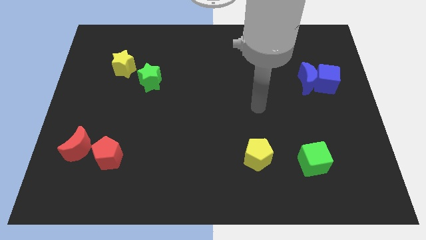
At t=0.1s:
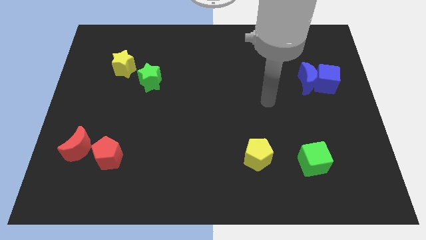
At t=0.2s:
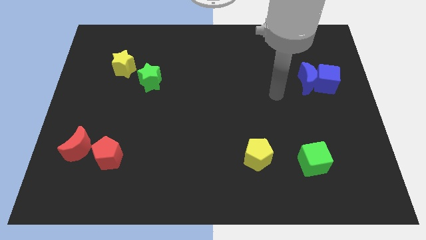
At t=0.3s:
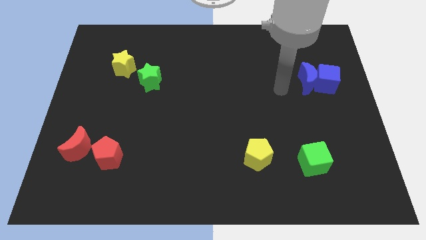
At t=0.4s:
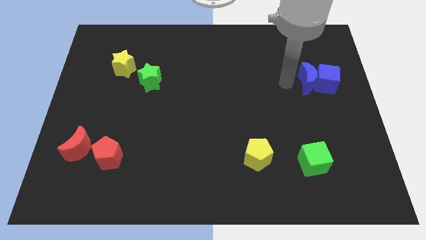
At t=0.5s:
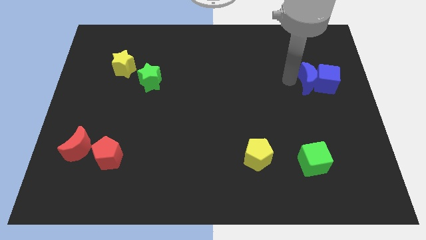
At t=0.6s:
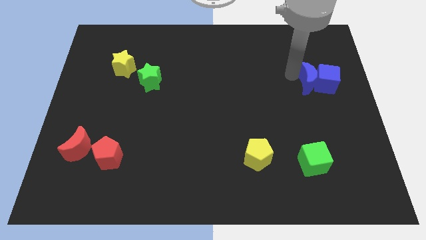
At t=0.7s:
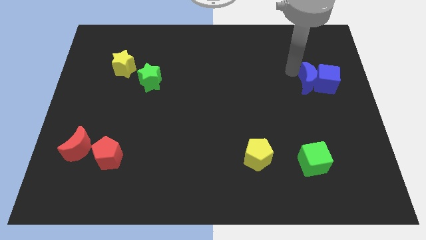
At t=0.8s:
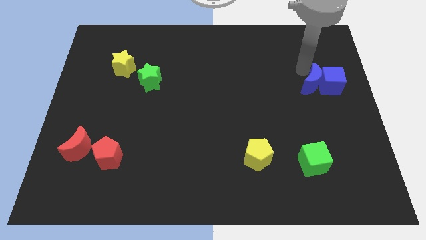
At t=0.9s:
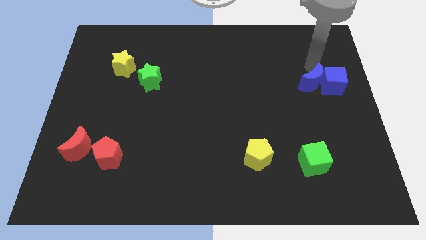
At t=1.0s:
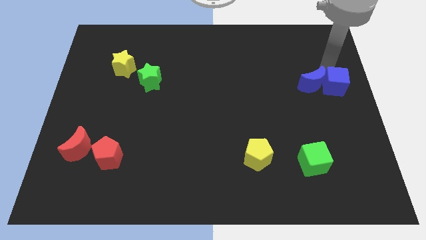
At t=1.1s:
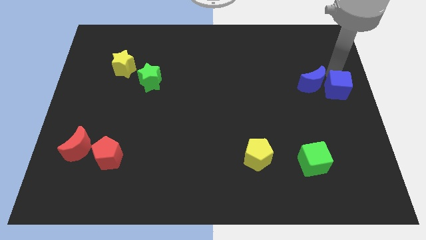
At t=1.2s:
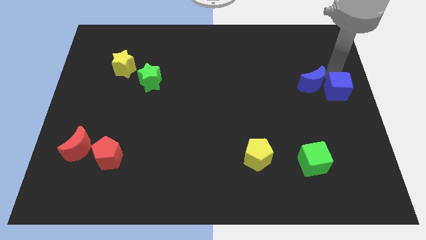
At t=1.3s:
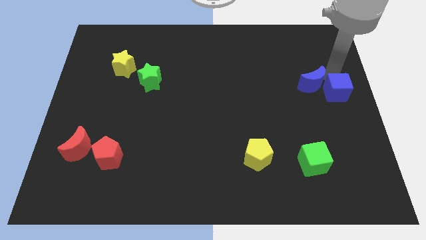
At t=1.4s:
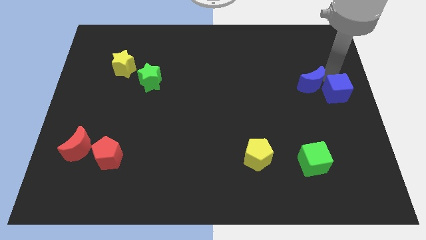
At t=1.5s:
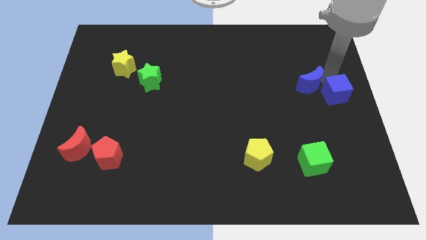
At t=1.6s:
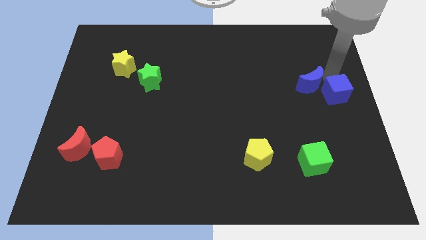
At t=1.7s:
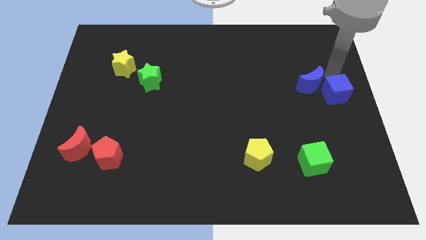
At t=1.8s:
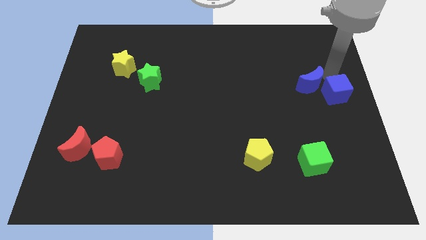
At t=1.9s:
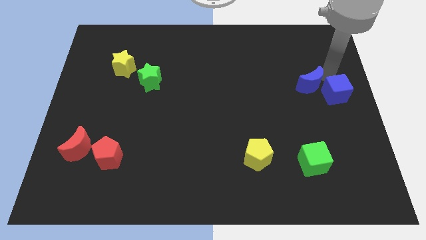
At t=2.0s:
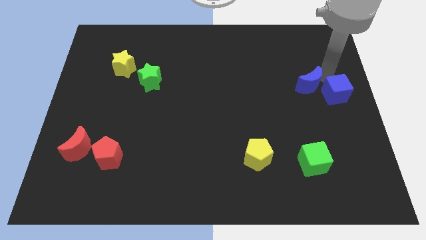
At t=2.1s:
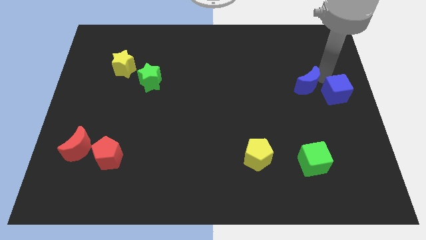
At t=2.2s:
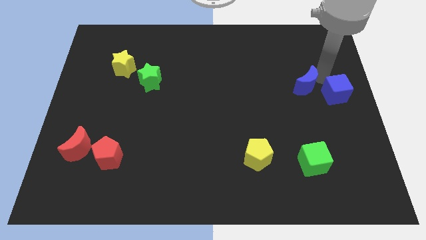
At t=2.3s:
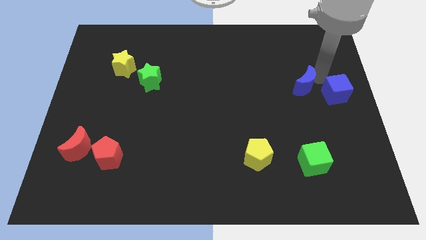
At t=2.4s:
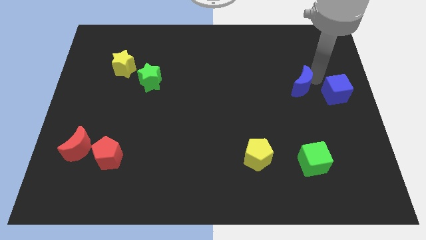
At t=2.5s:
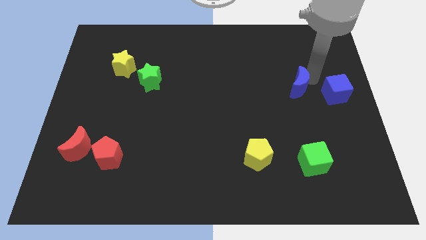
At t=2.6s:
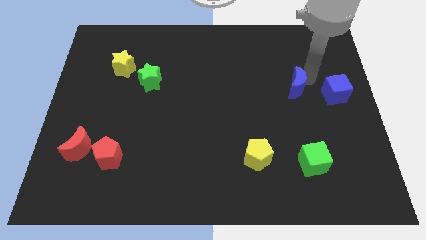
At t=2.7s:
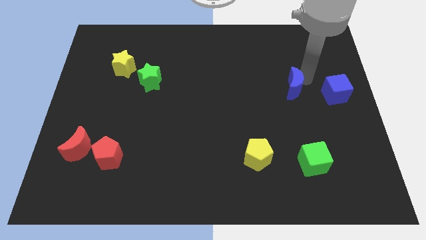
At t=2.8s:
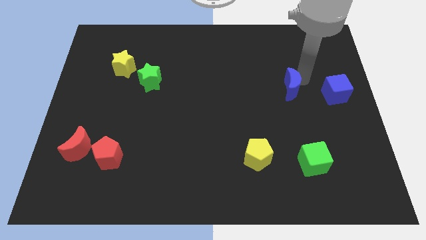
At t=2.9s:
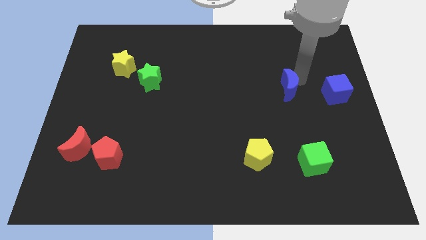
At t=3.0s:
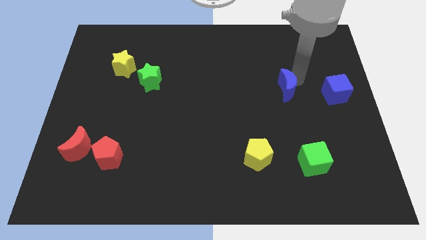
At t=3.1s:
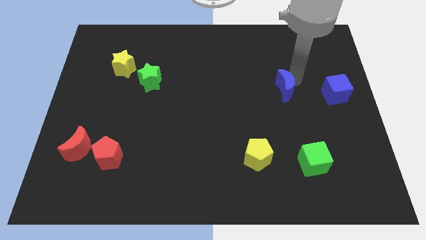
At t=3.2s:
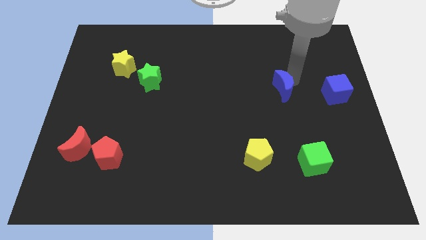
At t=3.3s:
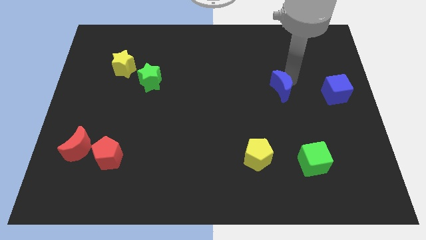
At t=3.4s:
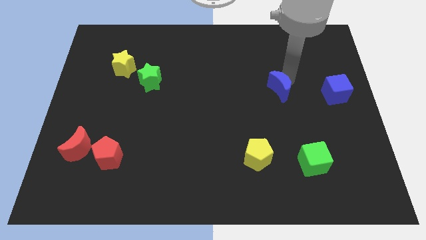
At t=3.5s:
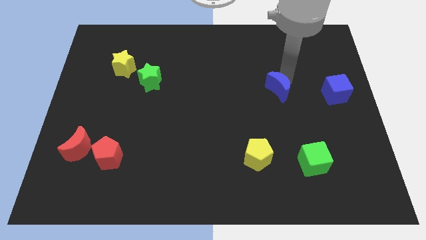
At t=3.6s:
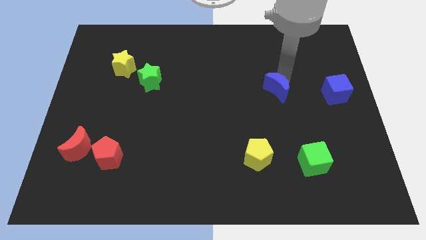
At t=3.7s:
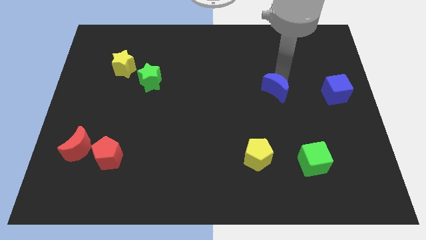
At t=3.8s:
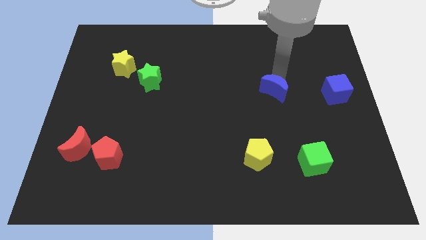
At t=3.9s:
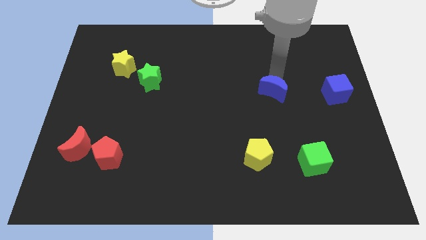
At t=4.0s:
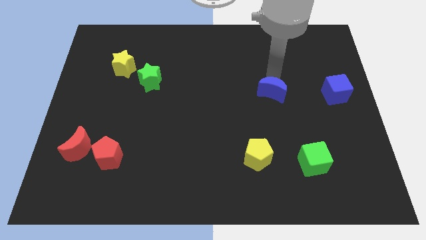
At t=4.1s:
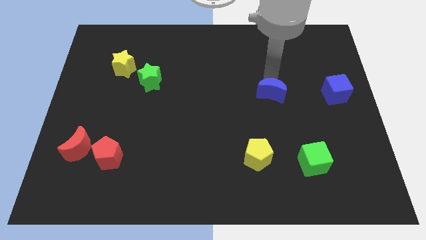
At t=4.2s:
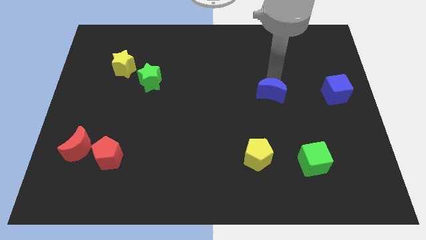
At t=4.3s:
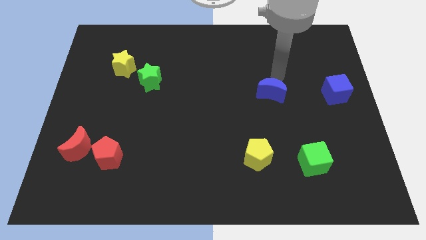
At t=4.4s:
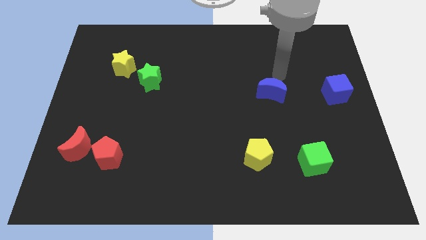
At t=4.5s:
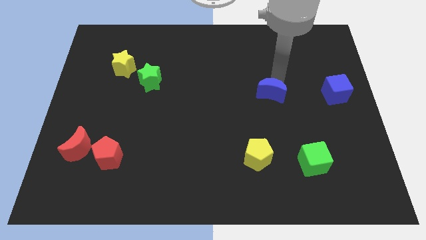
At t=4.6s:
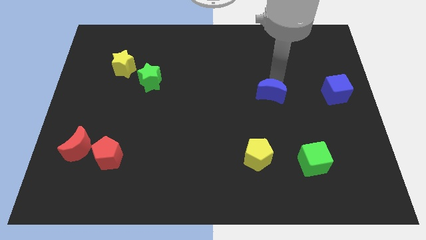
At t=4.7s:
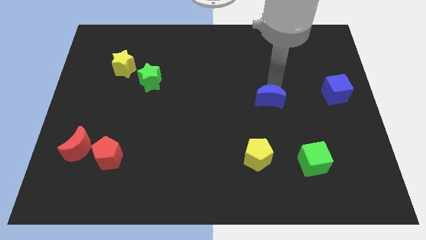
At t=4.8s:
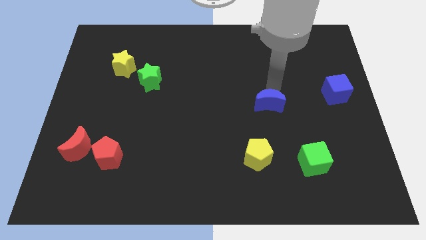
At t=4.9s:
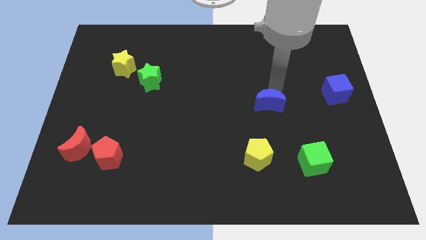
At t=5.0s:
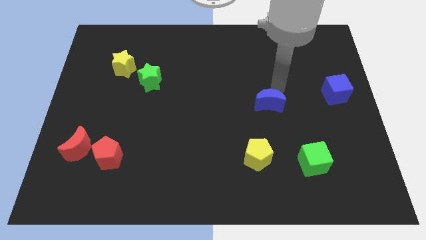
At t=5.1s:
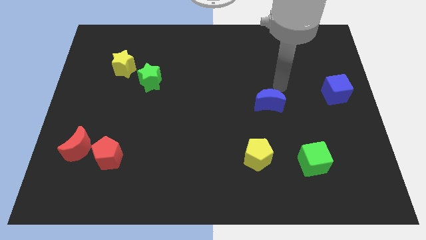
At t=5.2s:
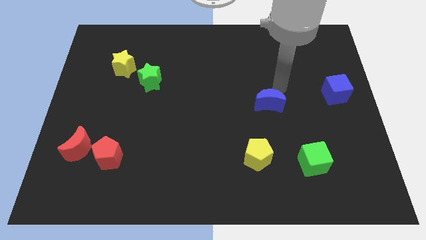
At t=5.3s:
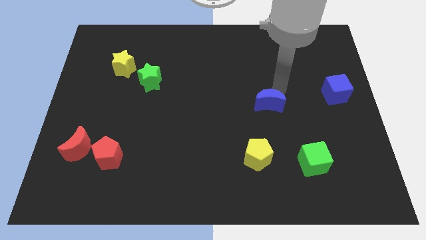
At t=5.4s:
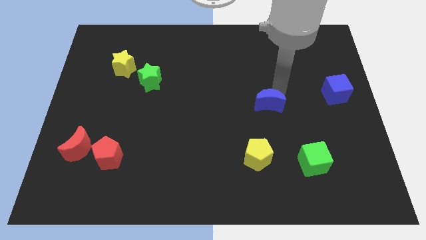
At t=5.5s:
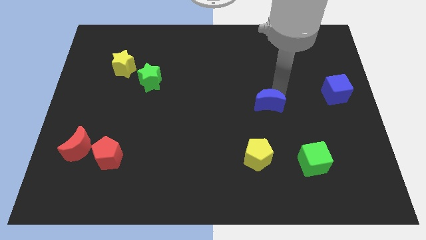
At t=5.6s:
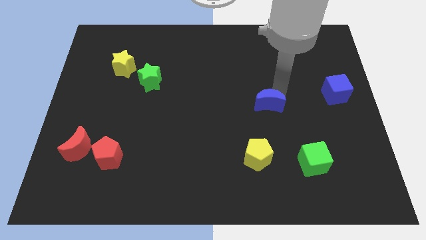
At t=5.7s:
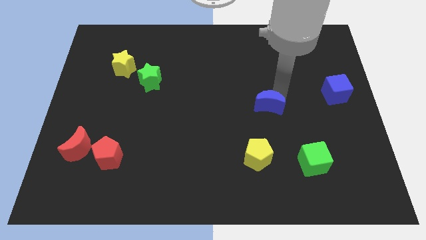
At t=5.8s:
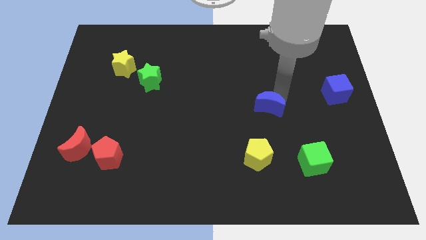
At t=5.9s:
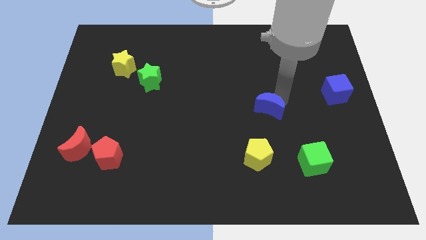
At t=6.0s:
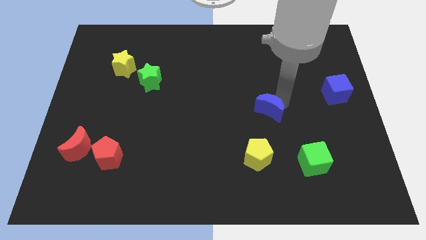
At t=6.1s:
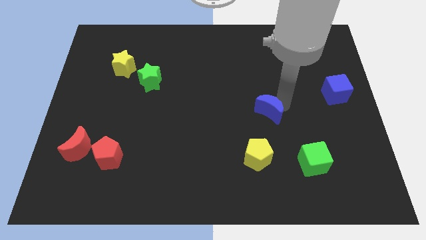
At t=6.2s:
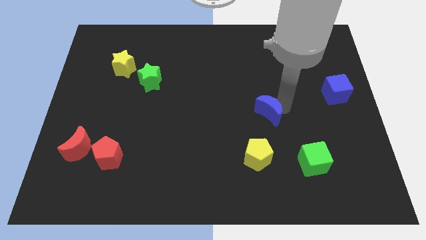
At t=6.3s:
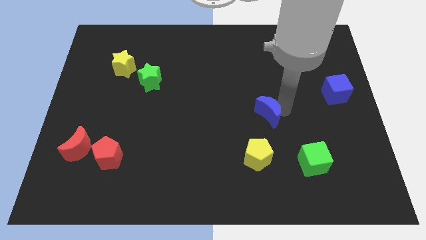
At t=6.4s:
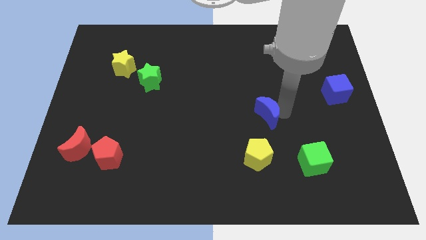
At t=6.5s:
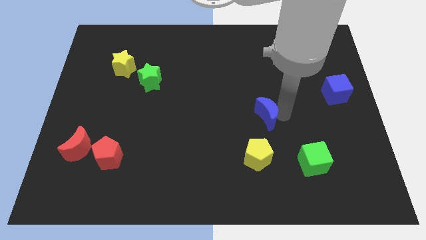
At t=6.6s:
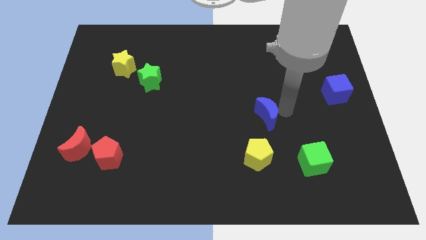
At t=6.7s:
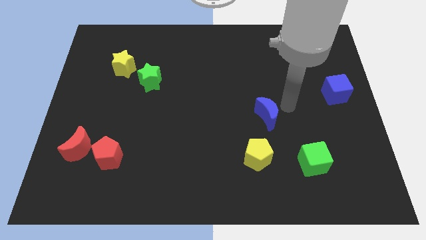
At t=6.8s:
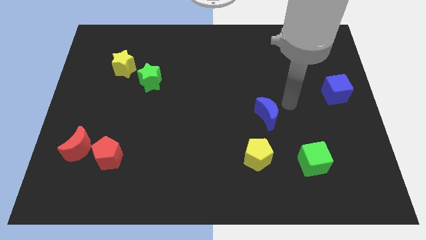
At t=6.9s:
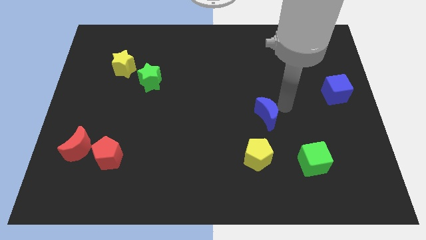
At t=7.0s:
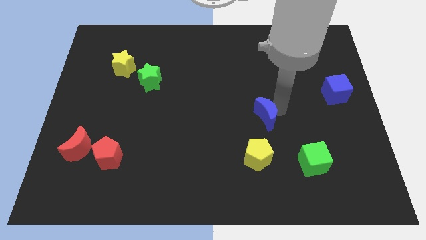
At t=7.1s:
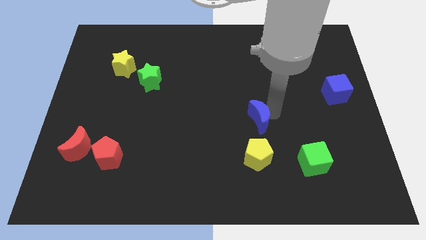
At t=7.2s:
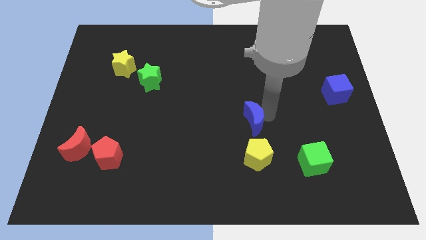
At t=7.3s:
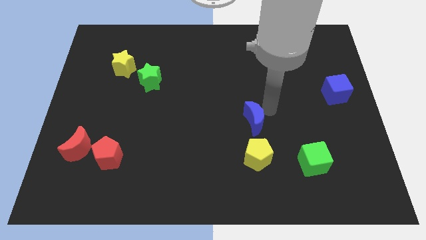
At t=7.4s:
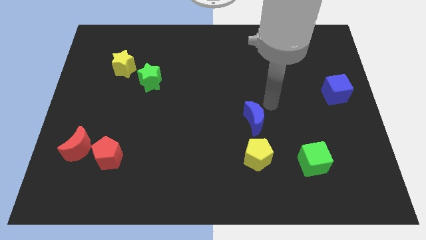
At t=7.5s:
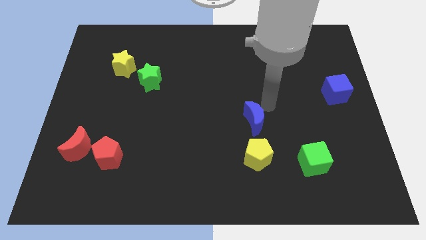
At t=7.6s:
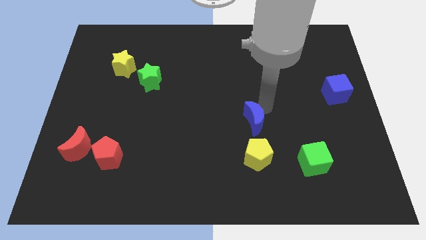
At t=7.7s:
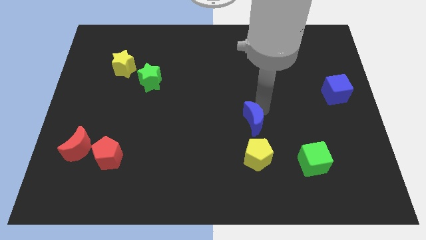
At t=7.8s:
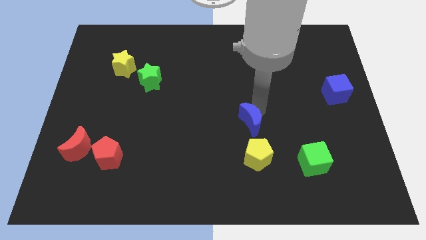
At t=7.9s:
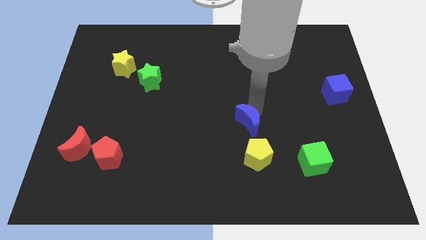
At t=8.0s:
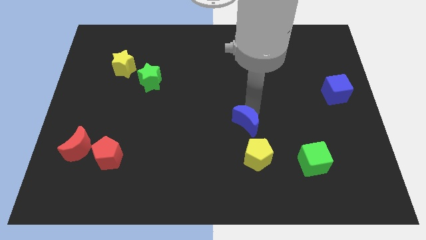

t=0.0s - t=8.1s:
slide the blue moon downwards and left
